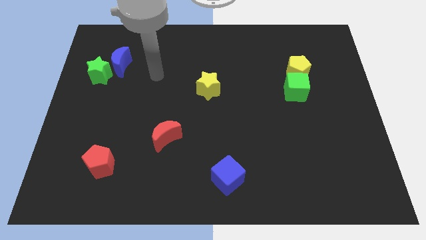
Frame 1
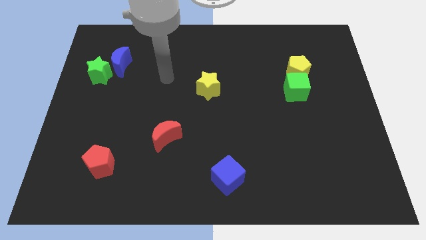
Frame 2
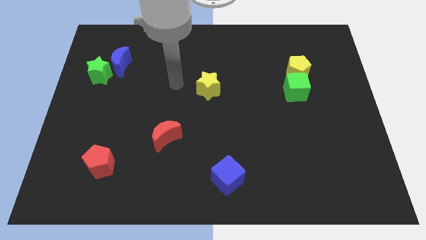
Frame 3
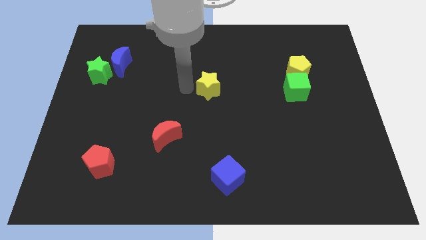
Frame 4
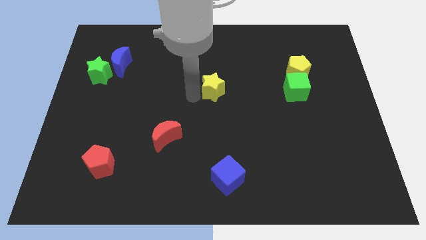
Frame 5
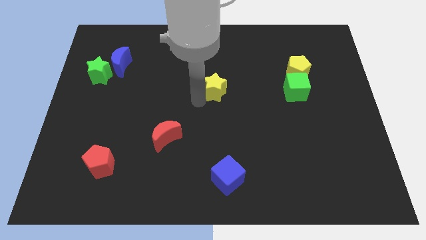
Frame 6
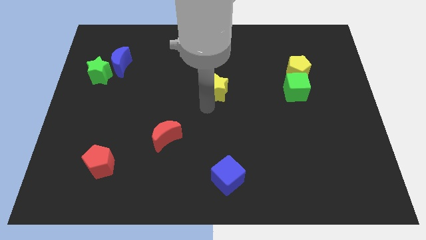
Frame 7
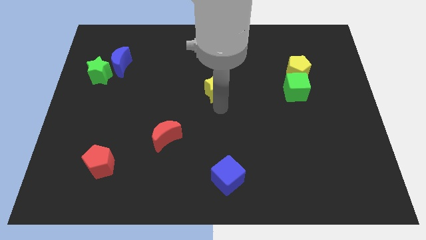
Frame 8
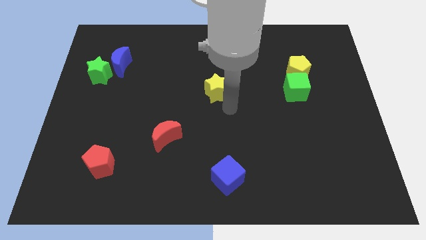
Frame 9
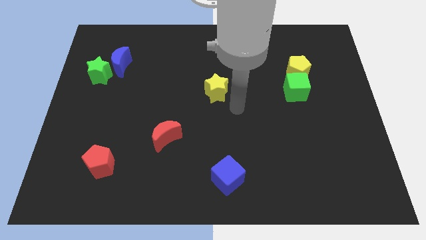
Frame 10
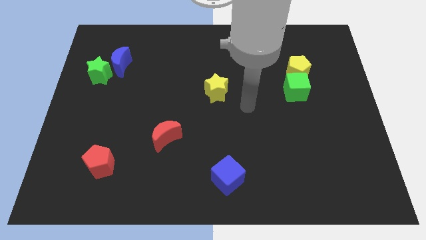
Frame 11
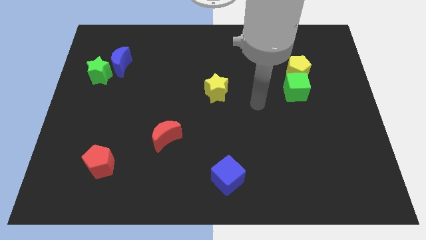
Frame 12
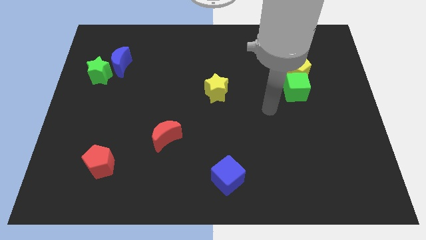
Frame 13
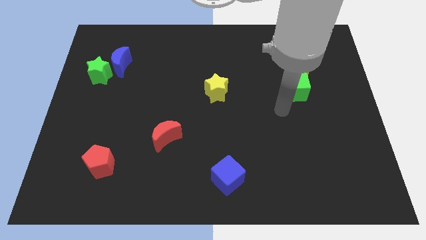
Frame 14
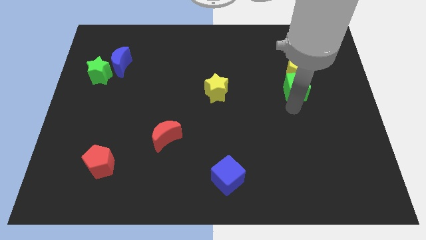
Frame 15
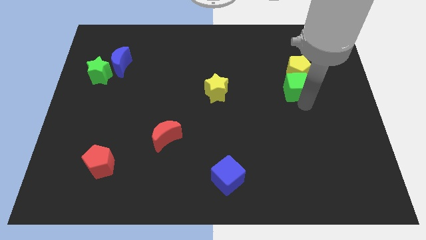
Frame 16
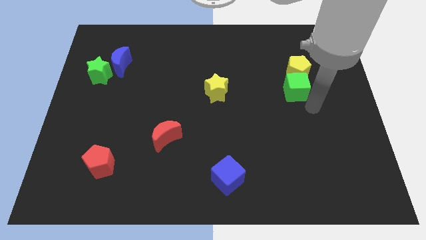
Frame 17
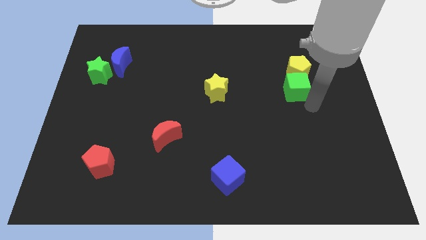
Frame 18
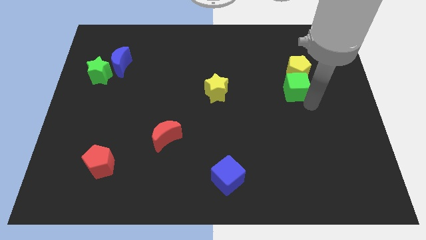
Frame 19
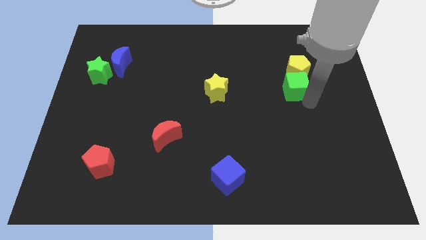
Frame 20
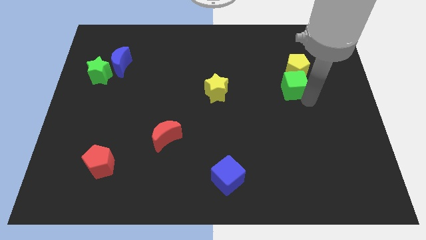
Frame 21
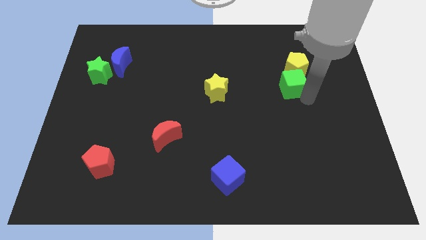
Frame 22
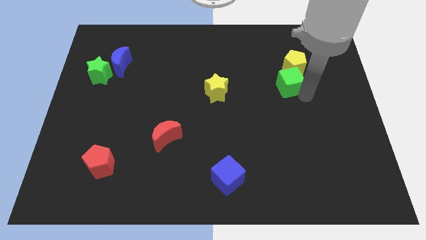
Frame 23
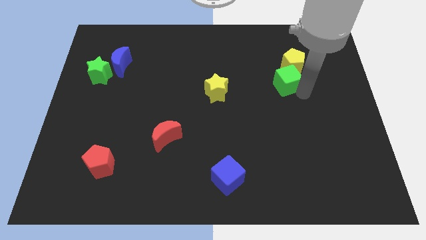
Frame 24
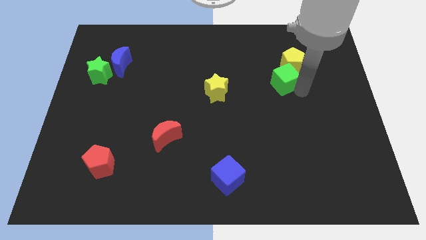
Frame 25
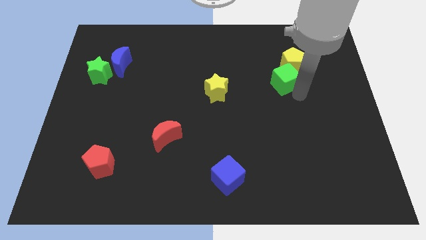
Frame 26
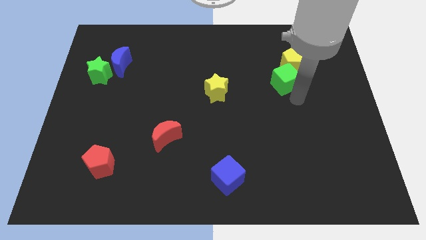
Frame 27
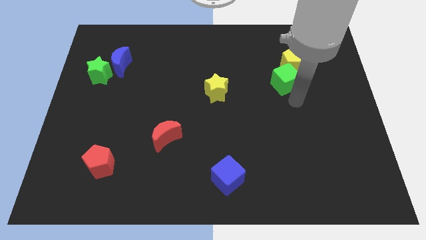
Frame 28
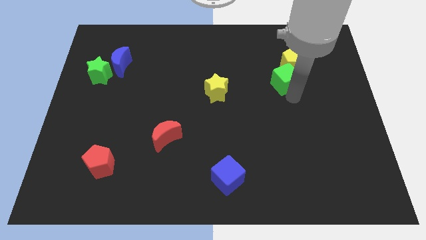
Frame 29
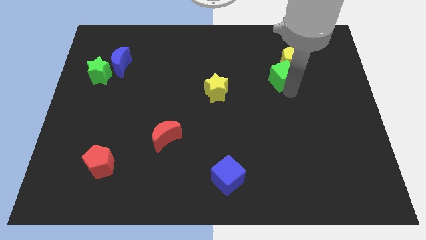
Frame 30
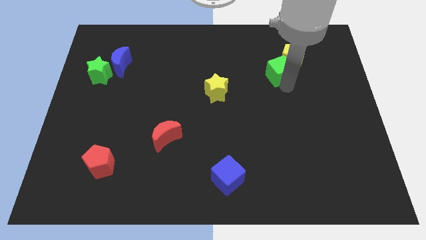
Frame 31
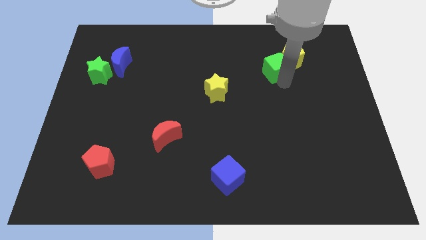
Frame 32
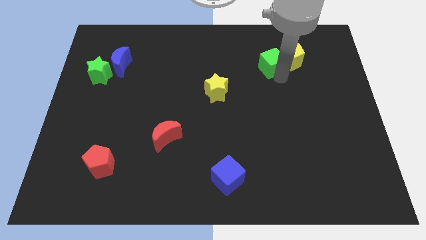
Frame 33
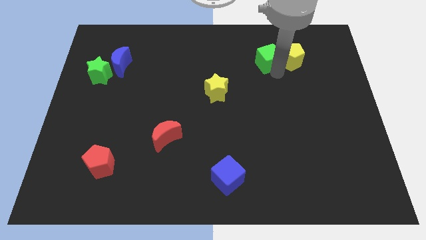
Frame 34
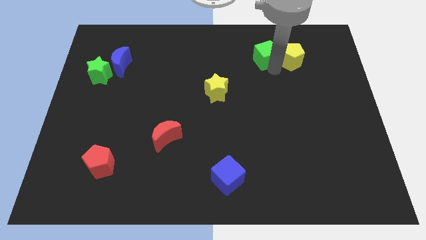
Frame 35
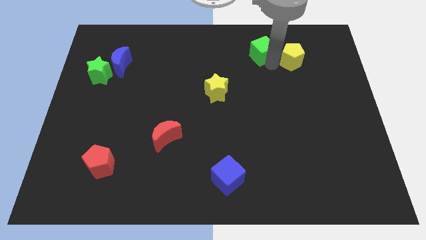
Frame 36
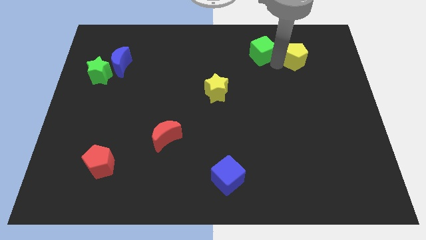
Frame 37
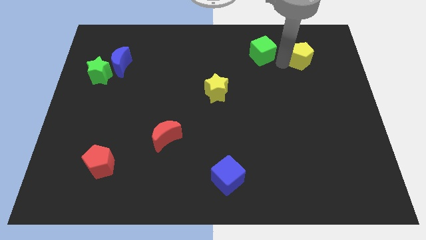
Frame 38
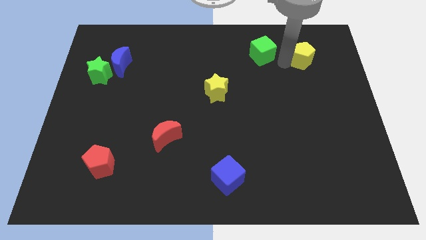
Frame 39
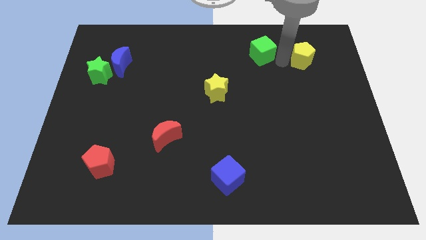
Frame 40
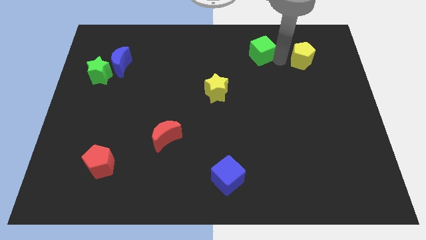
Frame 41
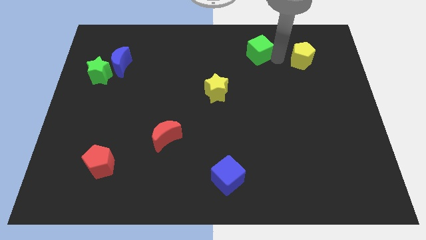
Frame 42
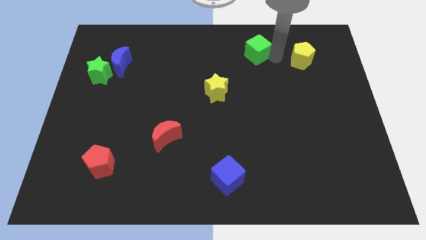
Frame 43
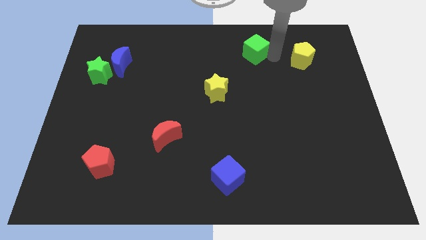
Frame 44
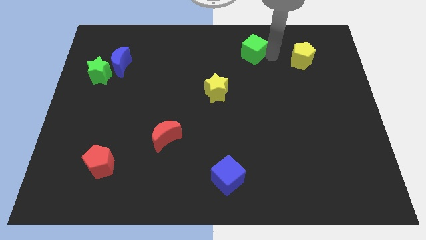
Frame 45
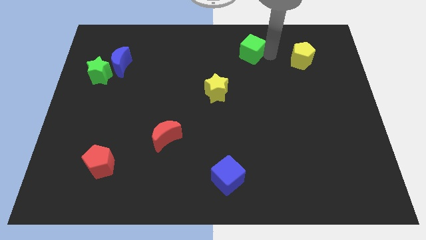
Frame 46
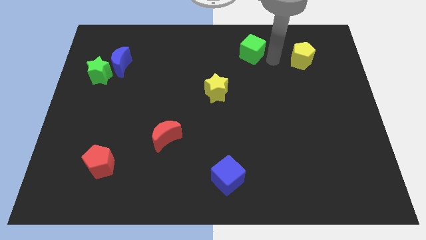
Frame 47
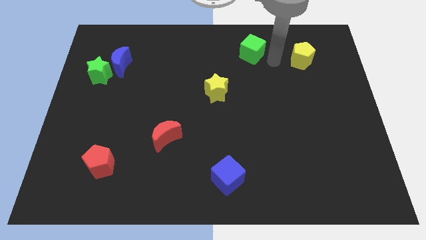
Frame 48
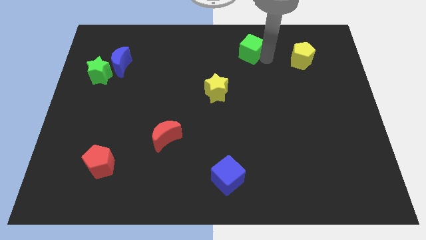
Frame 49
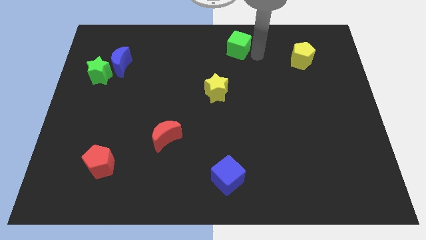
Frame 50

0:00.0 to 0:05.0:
move the green cube to the top side

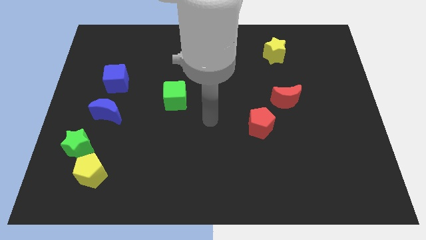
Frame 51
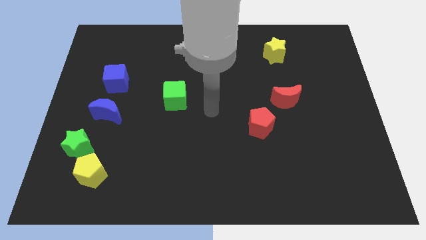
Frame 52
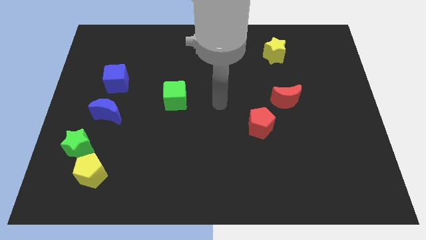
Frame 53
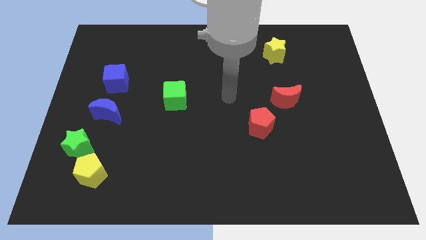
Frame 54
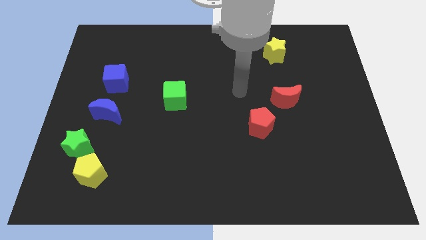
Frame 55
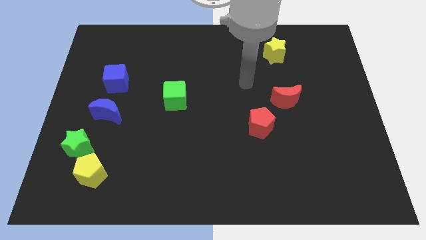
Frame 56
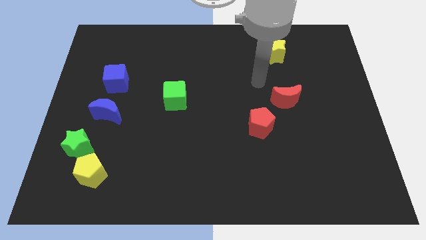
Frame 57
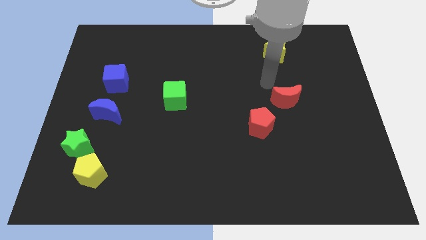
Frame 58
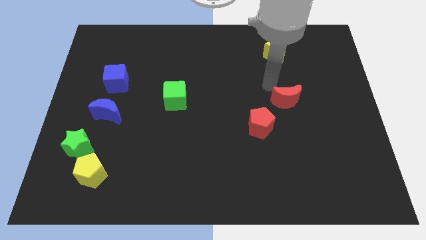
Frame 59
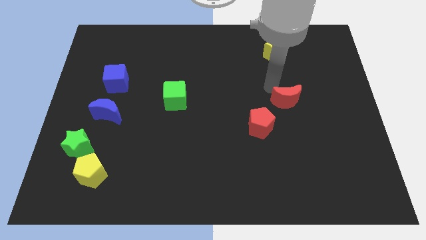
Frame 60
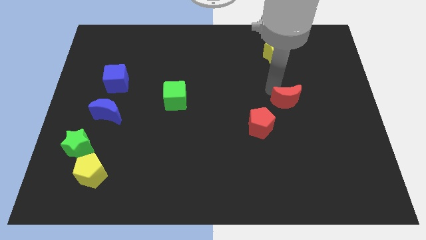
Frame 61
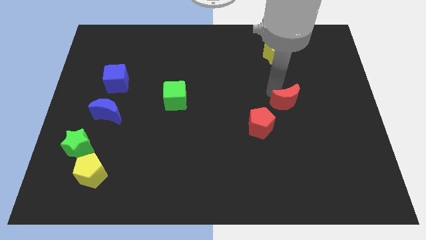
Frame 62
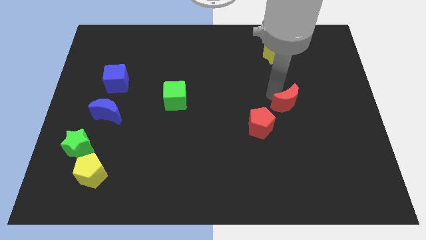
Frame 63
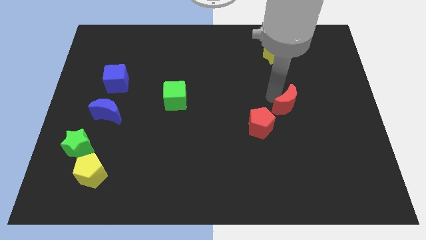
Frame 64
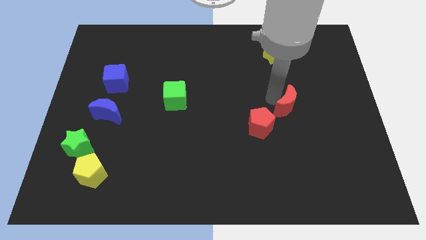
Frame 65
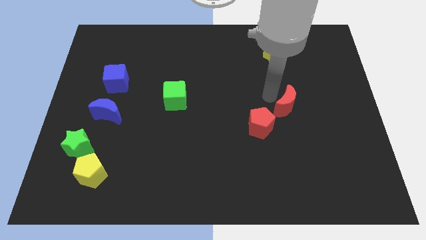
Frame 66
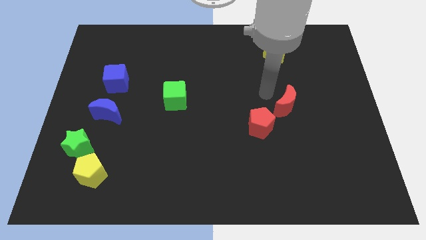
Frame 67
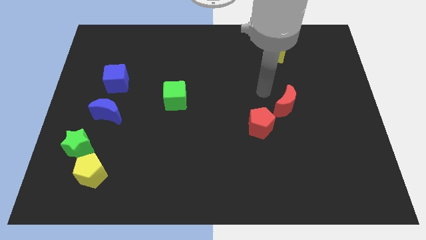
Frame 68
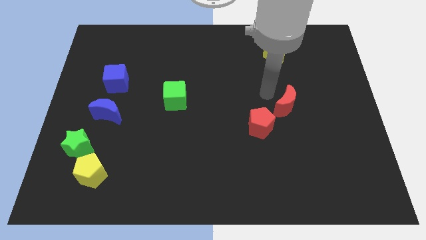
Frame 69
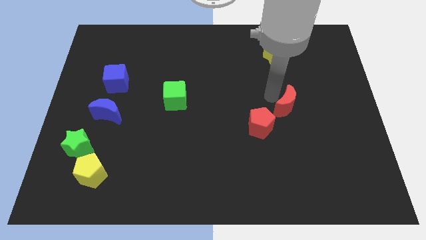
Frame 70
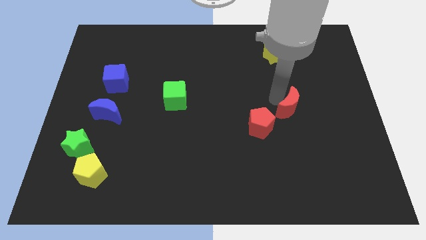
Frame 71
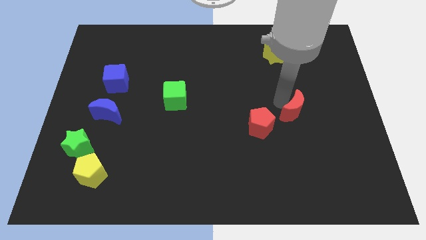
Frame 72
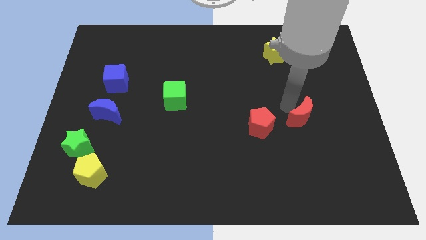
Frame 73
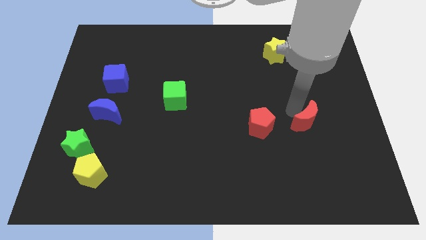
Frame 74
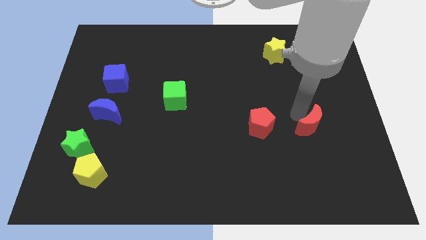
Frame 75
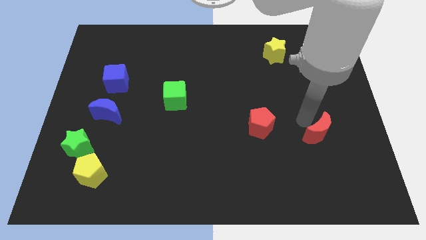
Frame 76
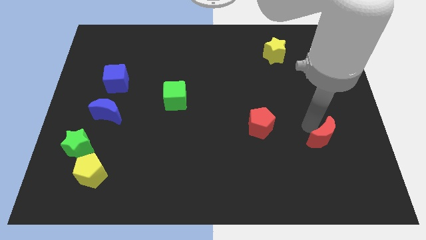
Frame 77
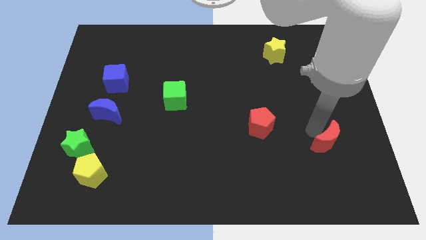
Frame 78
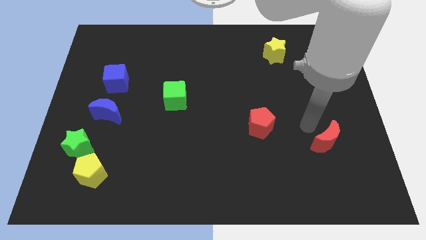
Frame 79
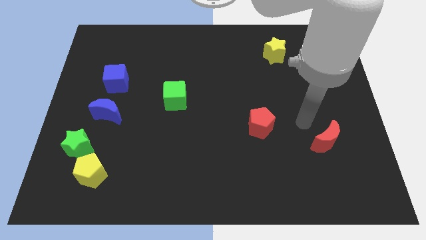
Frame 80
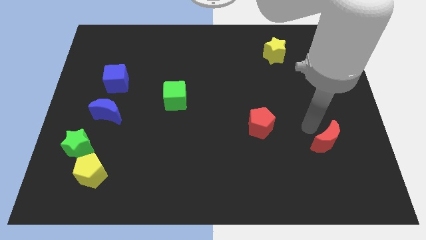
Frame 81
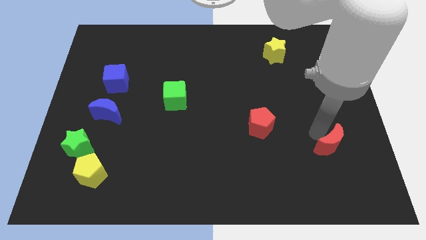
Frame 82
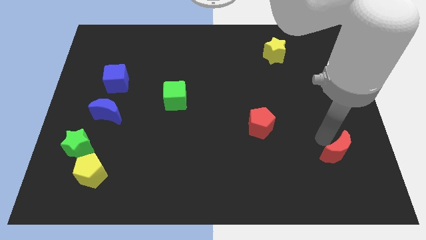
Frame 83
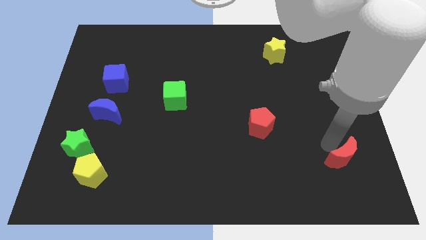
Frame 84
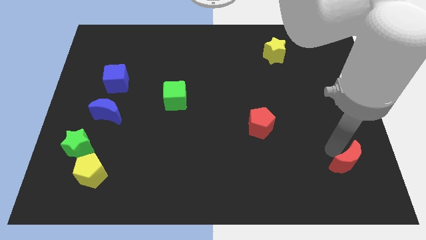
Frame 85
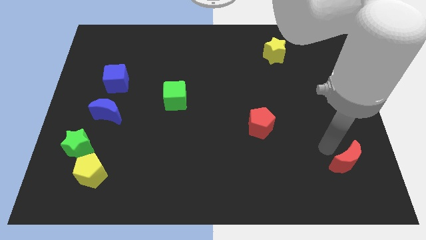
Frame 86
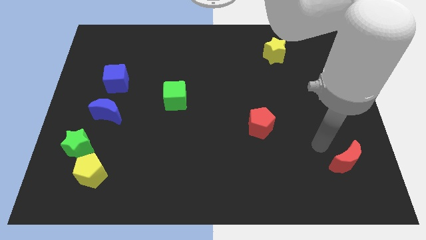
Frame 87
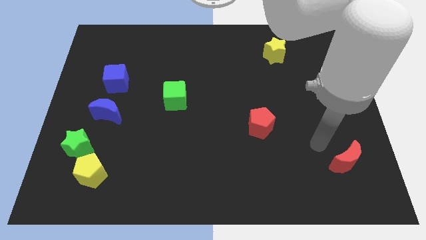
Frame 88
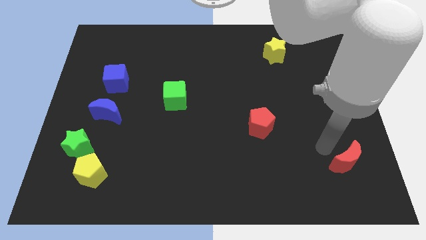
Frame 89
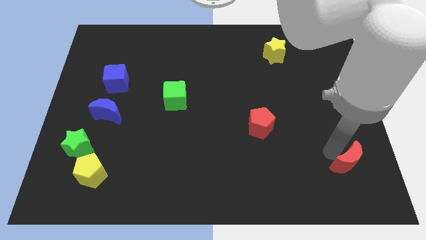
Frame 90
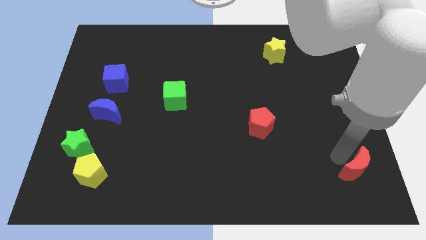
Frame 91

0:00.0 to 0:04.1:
put the red moon to the lower right corner
